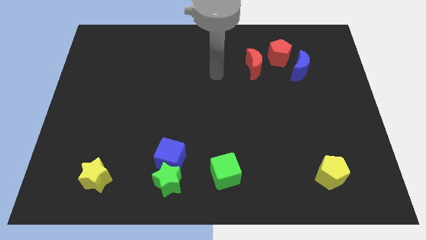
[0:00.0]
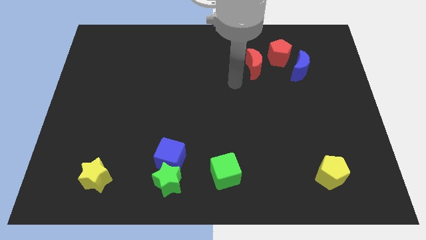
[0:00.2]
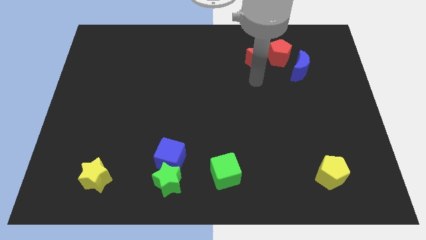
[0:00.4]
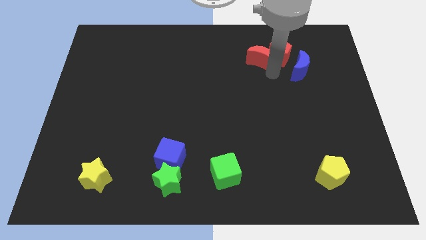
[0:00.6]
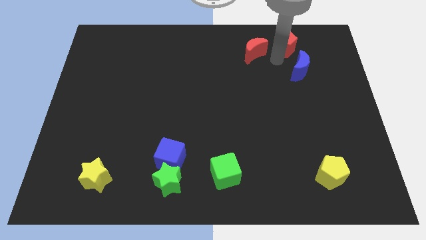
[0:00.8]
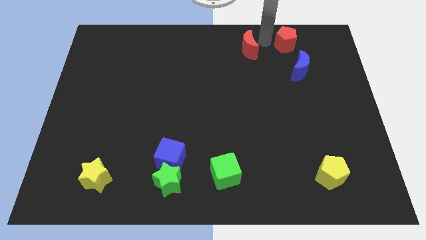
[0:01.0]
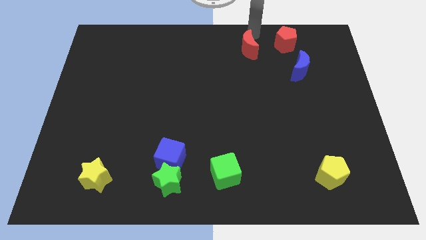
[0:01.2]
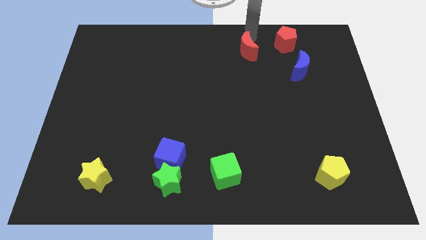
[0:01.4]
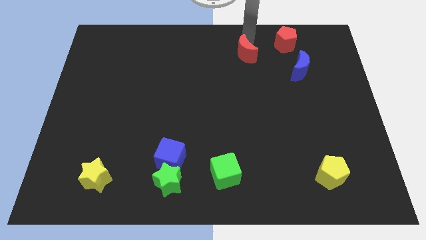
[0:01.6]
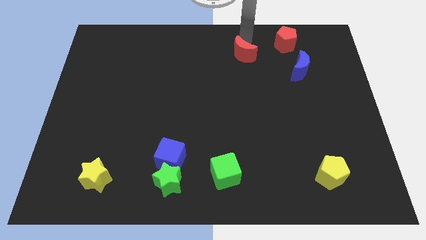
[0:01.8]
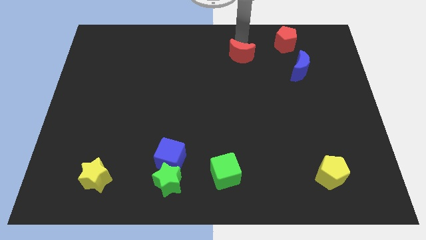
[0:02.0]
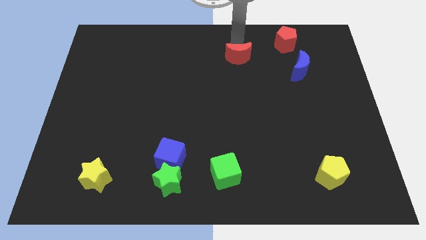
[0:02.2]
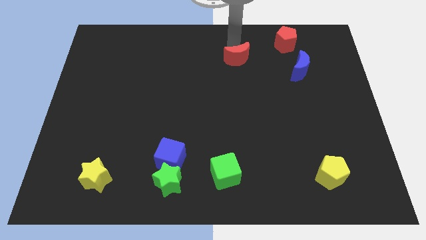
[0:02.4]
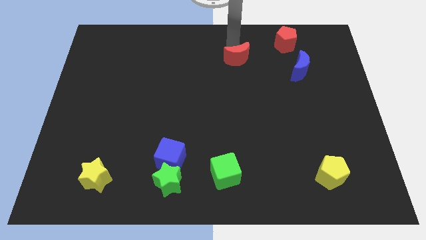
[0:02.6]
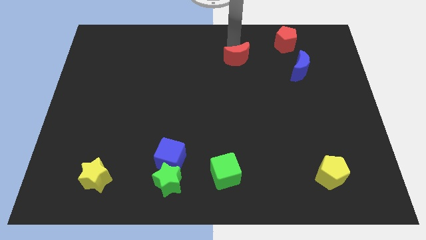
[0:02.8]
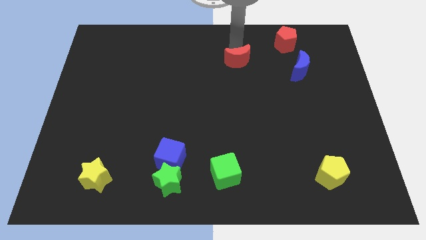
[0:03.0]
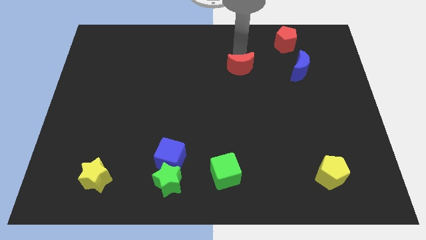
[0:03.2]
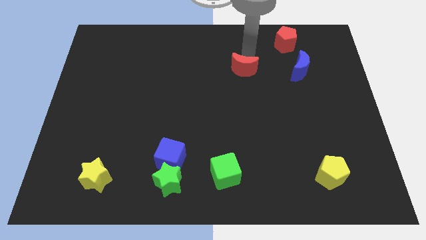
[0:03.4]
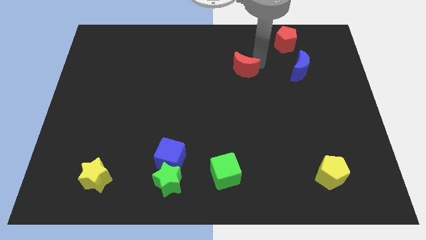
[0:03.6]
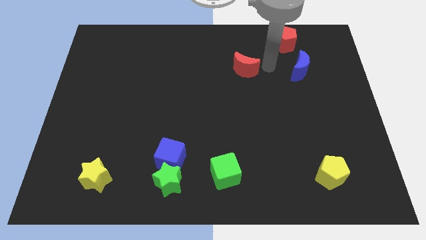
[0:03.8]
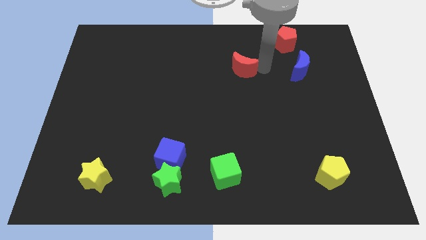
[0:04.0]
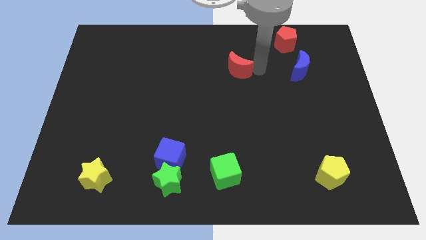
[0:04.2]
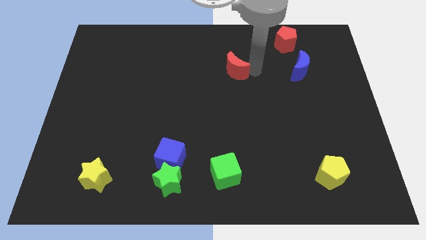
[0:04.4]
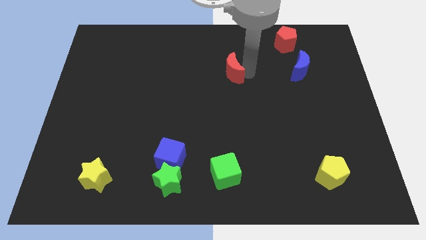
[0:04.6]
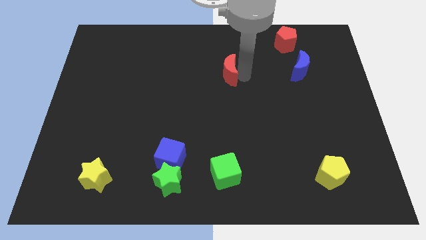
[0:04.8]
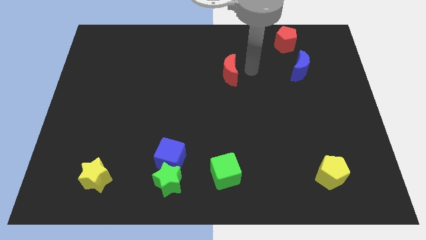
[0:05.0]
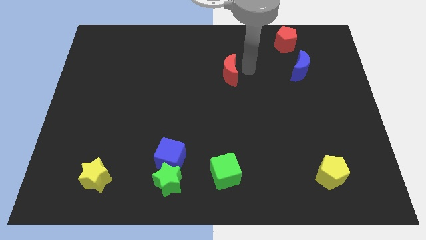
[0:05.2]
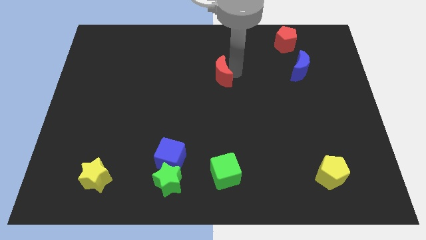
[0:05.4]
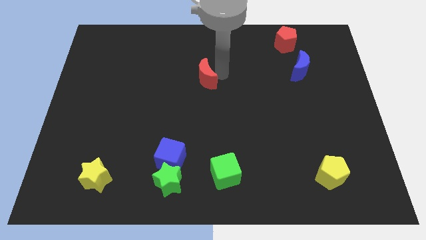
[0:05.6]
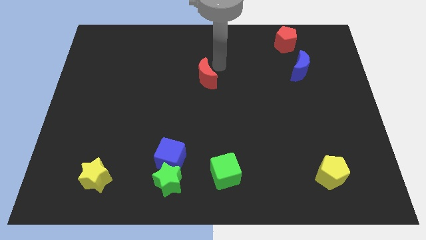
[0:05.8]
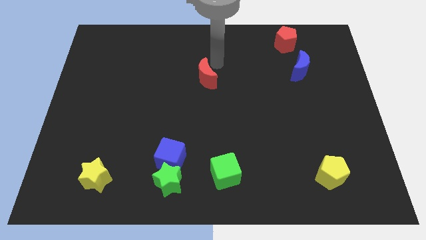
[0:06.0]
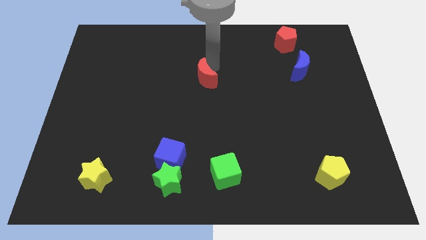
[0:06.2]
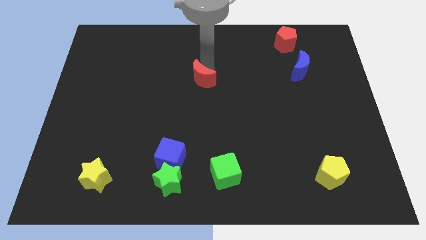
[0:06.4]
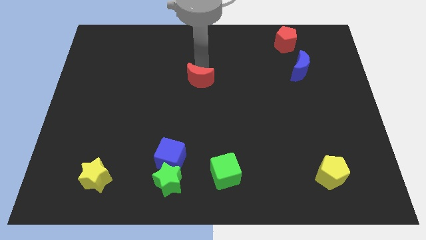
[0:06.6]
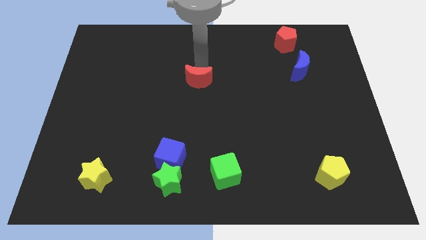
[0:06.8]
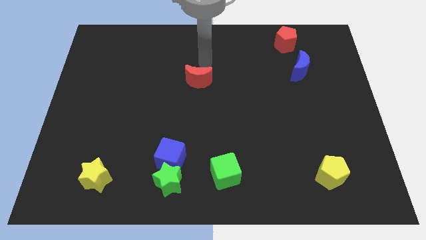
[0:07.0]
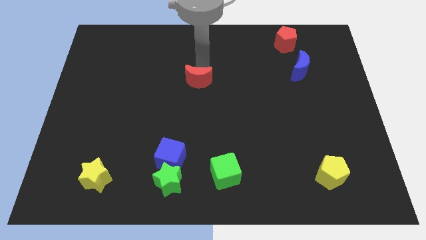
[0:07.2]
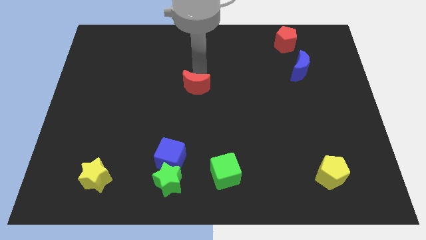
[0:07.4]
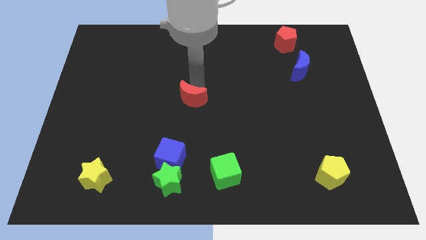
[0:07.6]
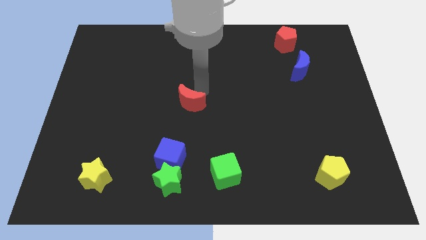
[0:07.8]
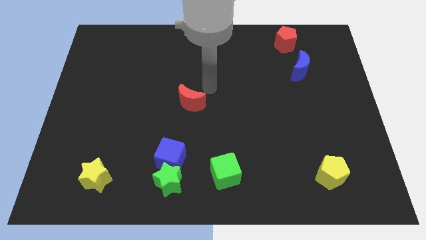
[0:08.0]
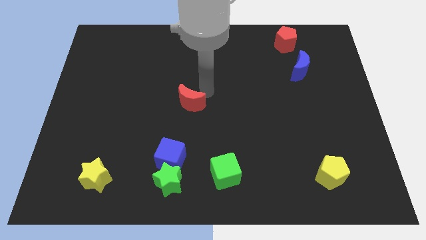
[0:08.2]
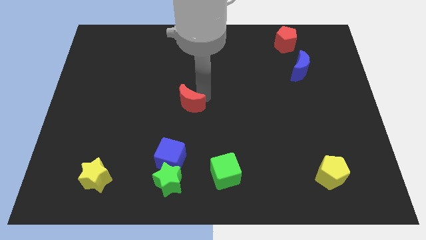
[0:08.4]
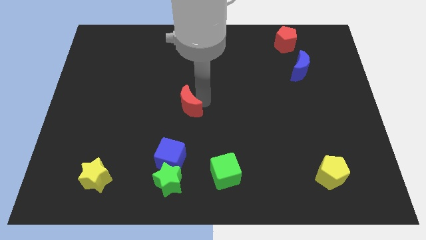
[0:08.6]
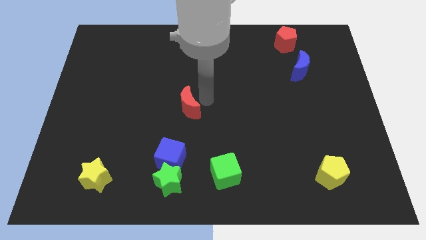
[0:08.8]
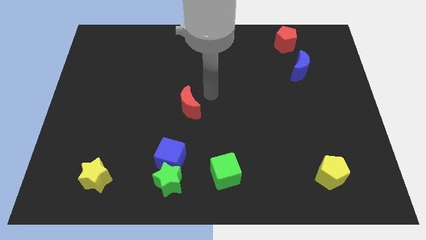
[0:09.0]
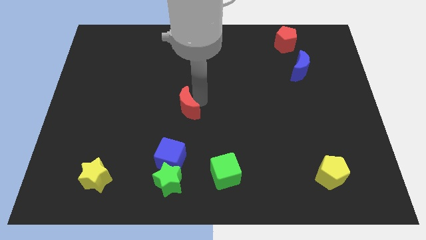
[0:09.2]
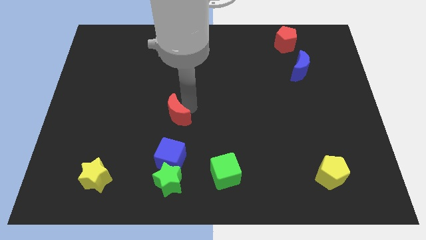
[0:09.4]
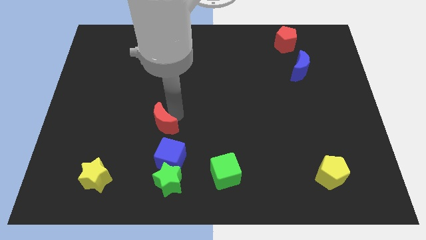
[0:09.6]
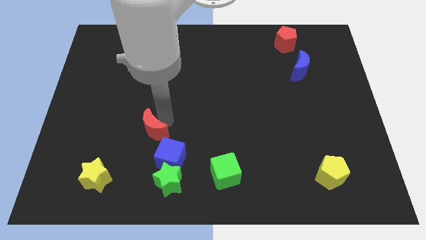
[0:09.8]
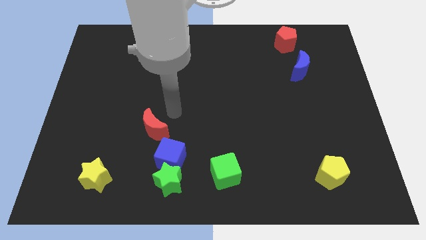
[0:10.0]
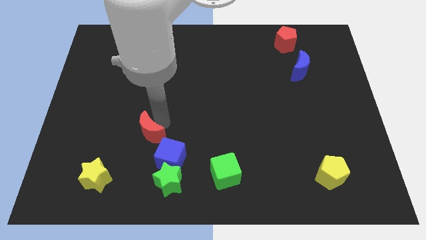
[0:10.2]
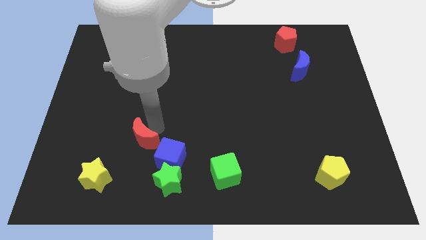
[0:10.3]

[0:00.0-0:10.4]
slide the red moon diagonally up and to the right of the yellow star

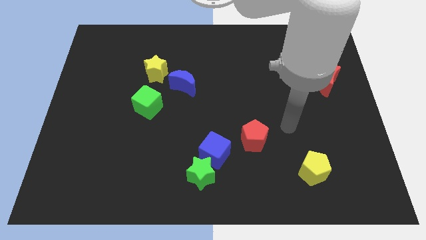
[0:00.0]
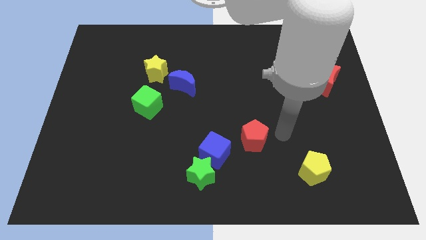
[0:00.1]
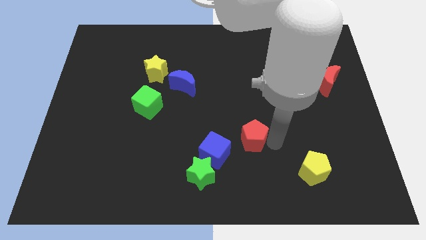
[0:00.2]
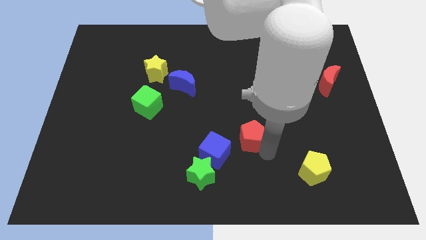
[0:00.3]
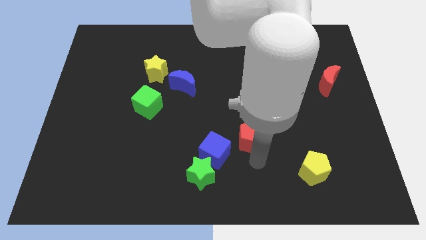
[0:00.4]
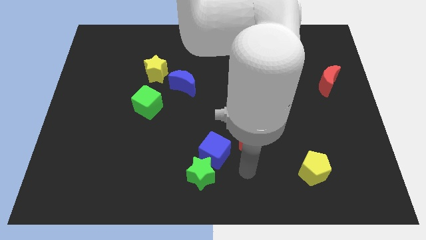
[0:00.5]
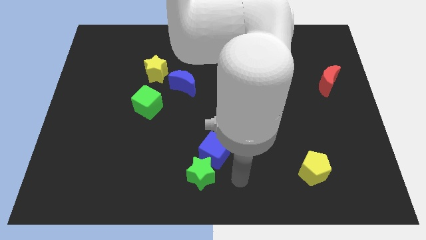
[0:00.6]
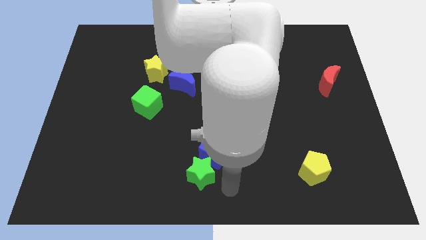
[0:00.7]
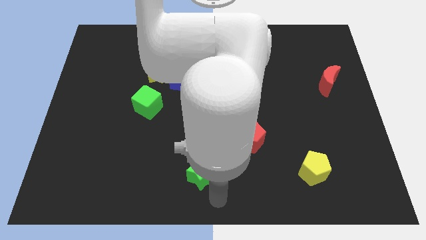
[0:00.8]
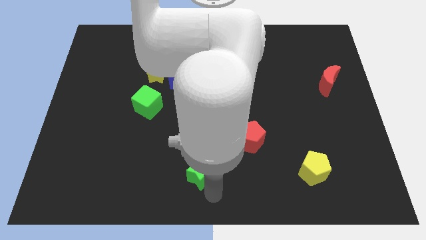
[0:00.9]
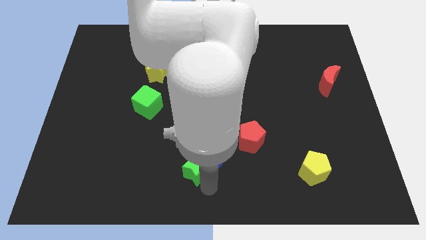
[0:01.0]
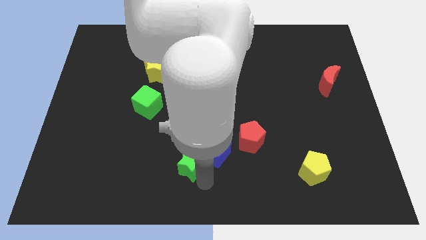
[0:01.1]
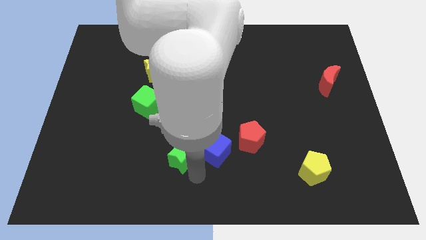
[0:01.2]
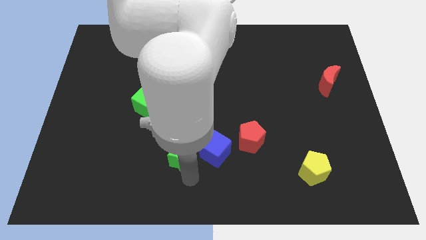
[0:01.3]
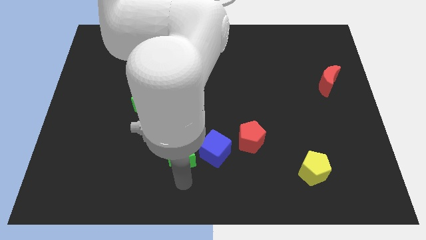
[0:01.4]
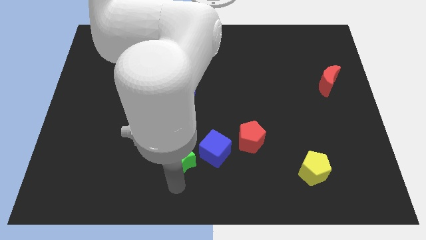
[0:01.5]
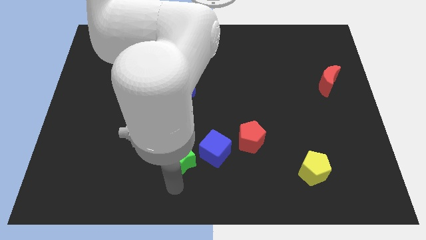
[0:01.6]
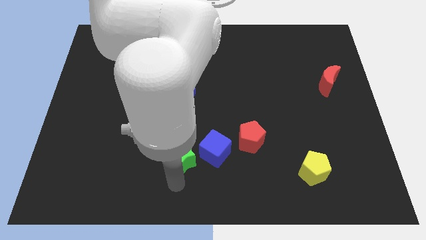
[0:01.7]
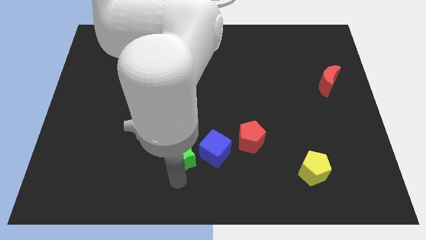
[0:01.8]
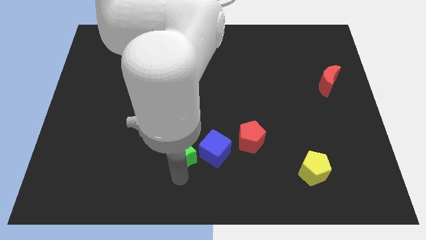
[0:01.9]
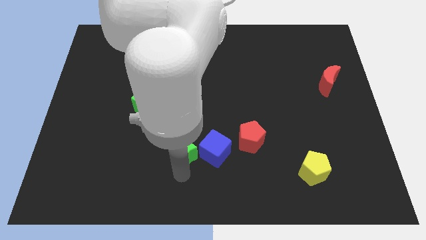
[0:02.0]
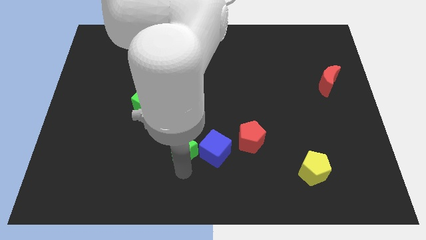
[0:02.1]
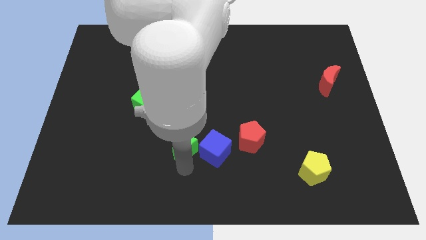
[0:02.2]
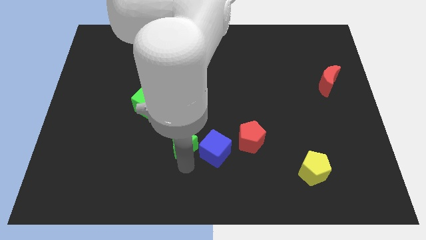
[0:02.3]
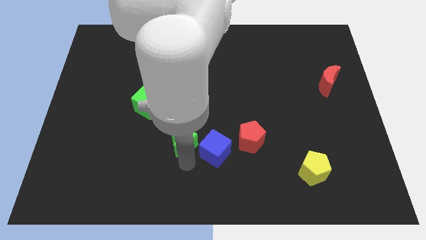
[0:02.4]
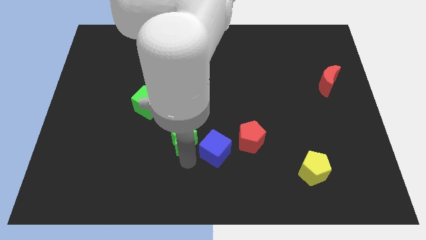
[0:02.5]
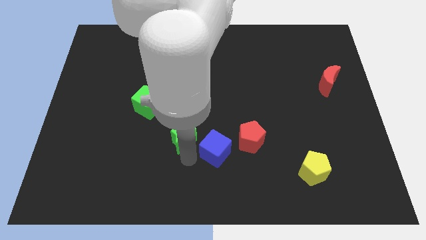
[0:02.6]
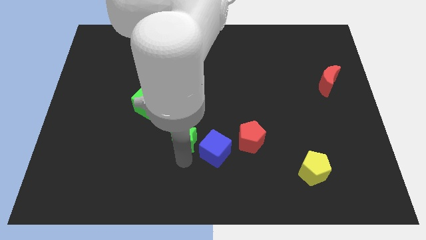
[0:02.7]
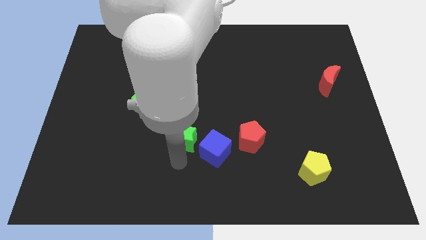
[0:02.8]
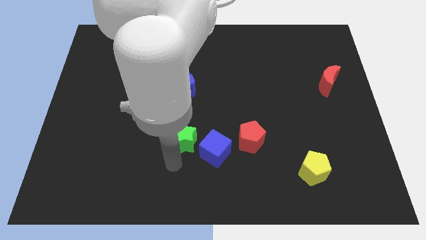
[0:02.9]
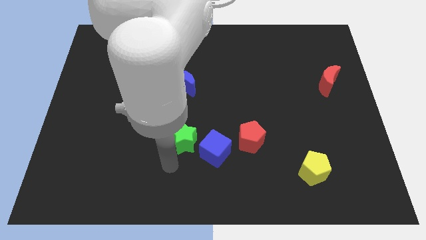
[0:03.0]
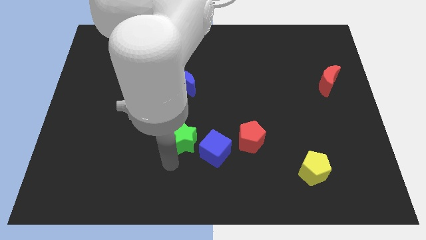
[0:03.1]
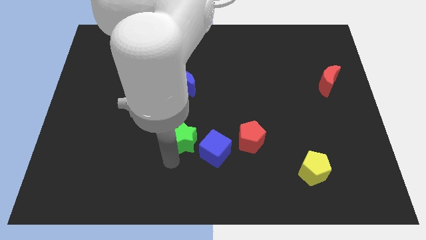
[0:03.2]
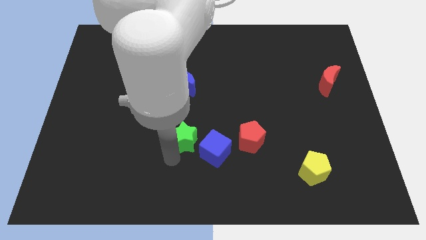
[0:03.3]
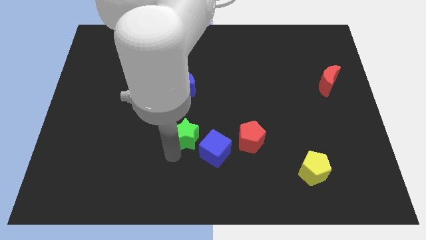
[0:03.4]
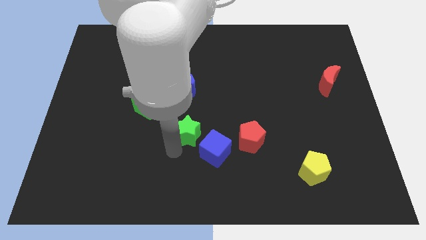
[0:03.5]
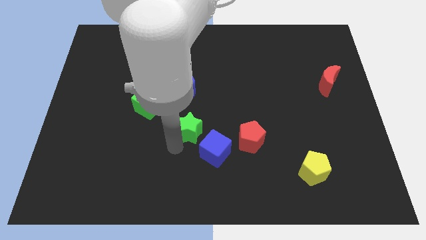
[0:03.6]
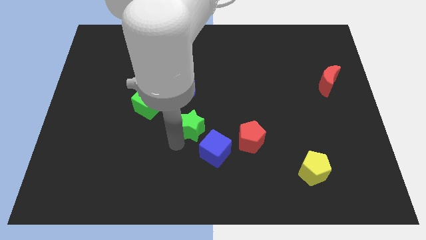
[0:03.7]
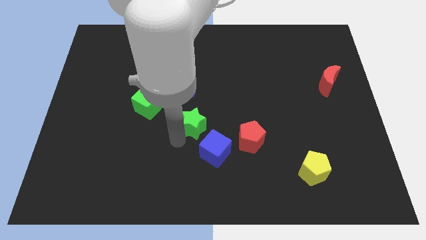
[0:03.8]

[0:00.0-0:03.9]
move the green star above the blue cube
